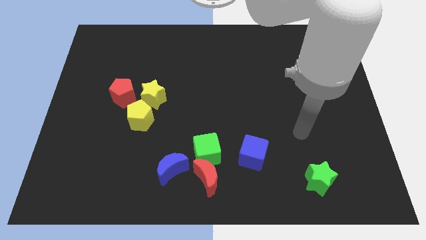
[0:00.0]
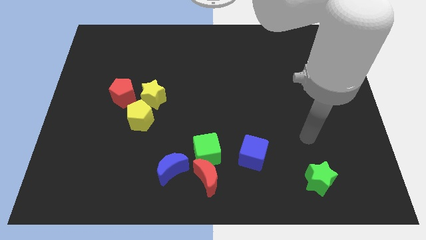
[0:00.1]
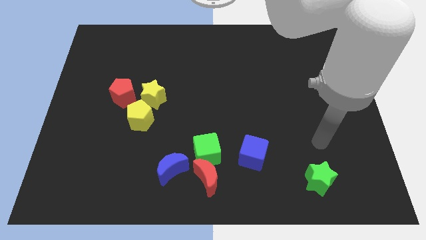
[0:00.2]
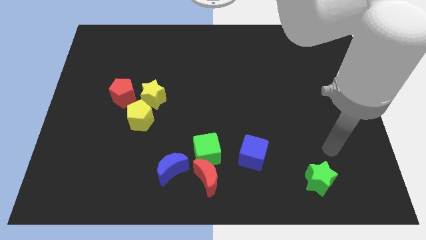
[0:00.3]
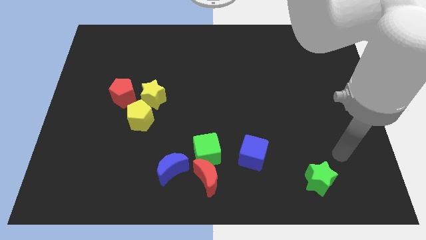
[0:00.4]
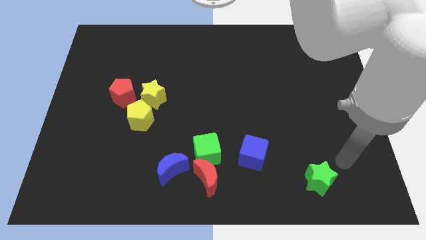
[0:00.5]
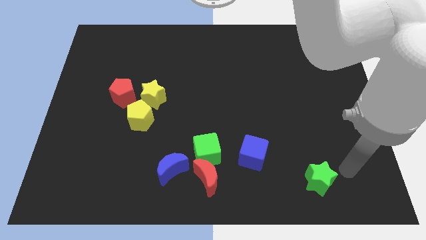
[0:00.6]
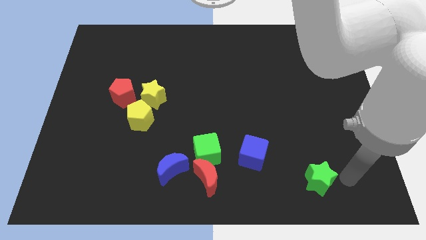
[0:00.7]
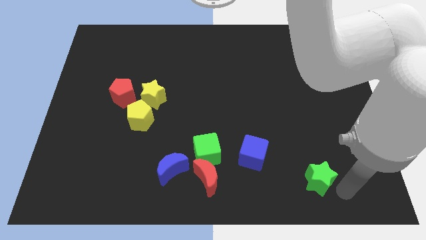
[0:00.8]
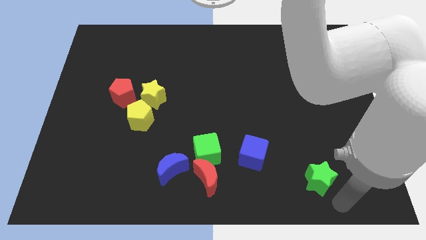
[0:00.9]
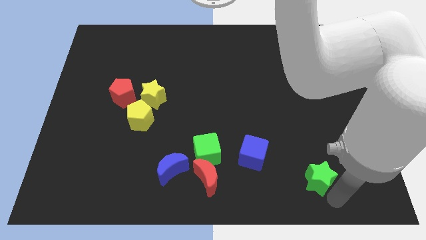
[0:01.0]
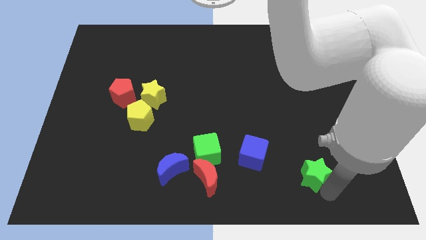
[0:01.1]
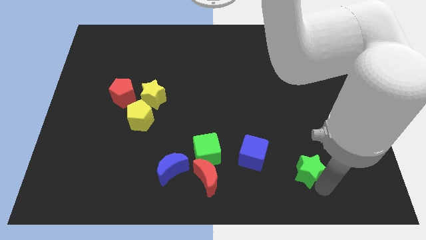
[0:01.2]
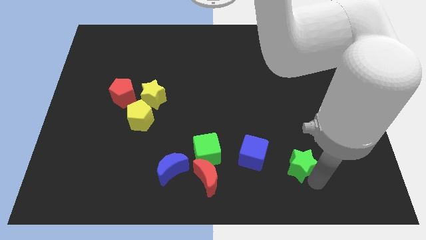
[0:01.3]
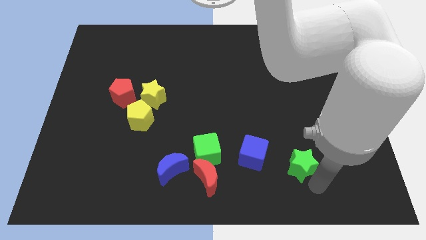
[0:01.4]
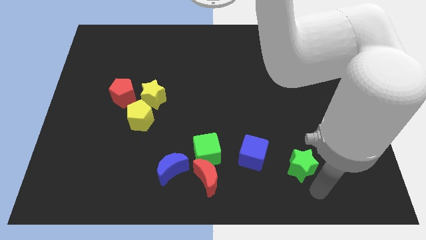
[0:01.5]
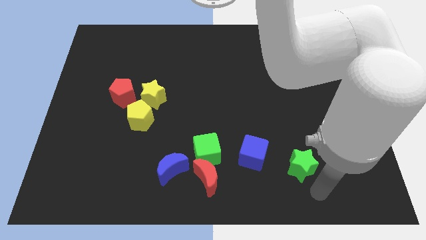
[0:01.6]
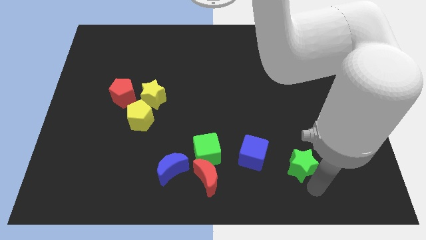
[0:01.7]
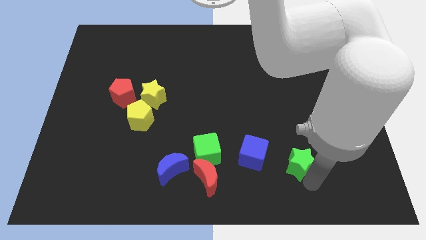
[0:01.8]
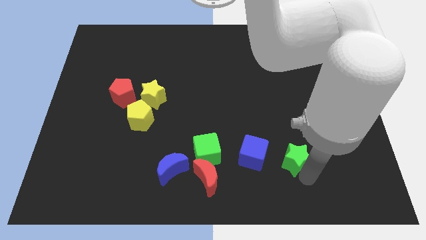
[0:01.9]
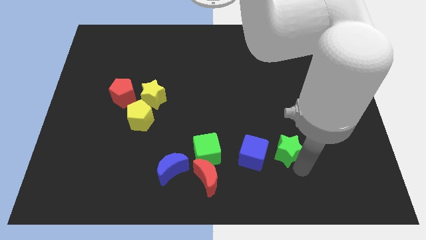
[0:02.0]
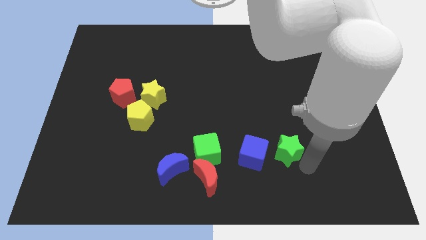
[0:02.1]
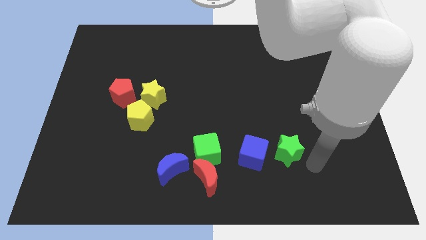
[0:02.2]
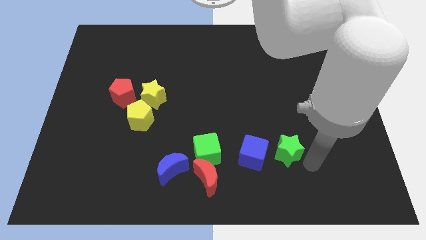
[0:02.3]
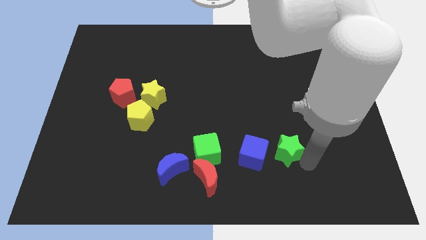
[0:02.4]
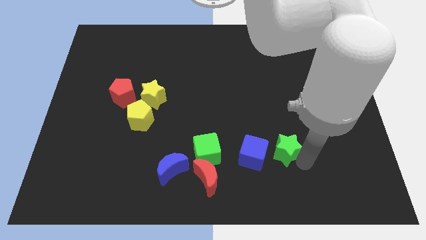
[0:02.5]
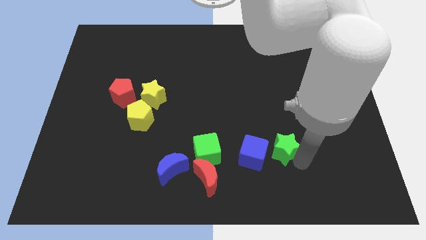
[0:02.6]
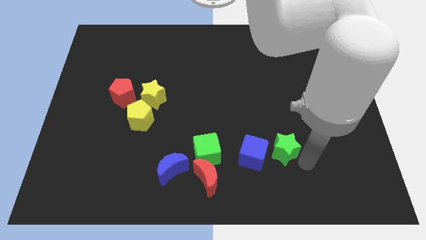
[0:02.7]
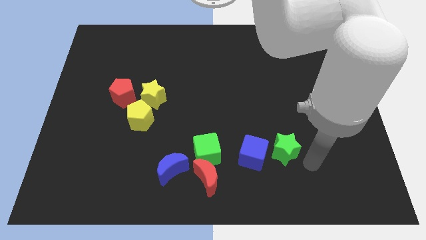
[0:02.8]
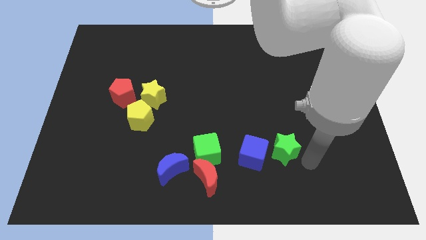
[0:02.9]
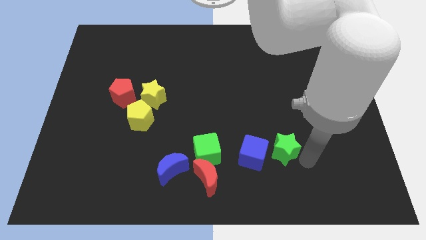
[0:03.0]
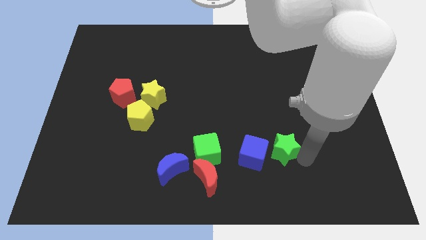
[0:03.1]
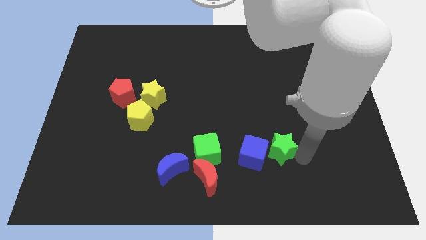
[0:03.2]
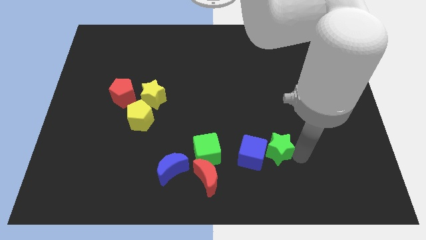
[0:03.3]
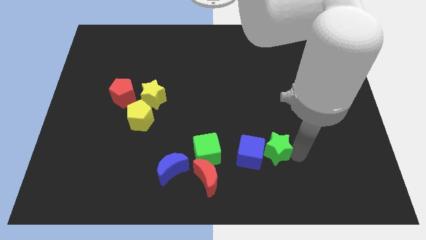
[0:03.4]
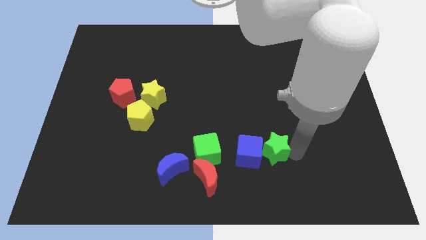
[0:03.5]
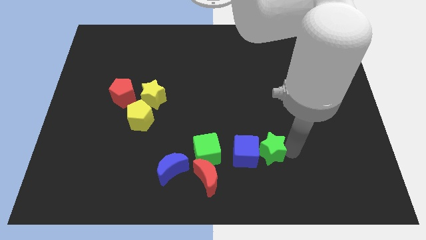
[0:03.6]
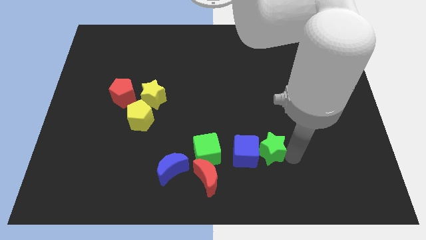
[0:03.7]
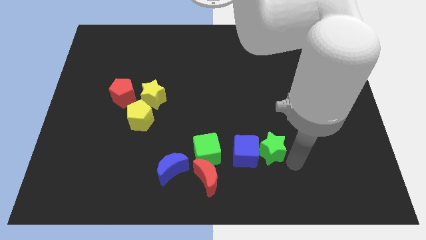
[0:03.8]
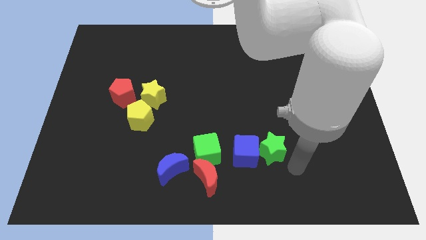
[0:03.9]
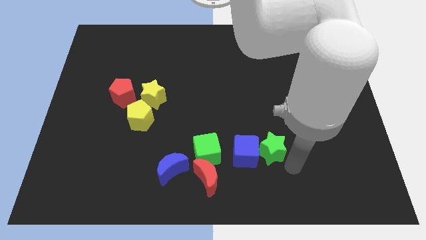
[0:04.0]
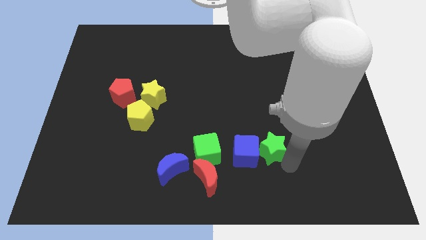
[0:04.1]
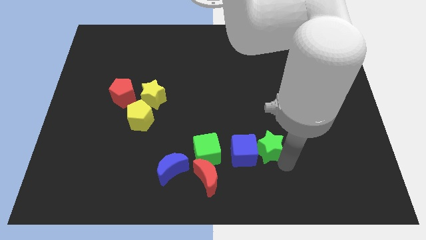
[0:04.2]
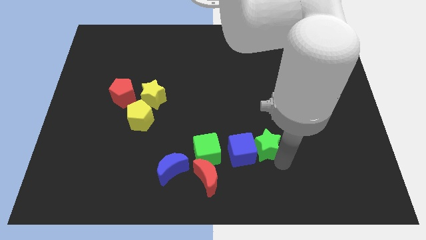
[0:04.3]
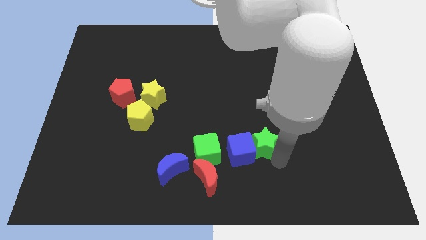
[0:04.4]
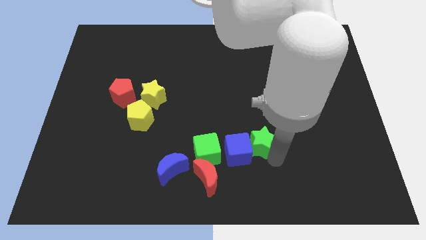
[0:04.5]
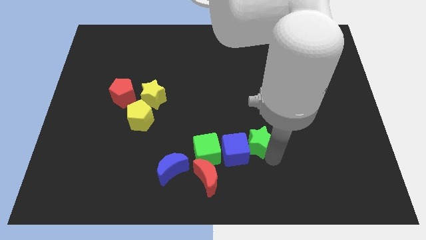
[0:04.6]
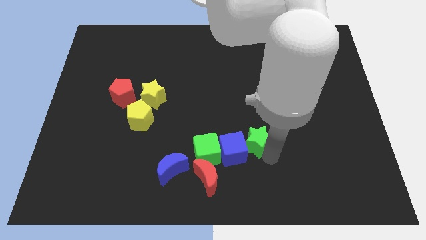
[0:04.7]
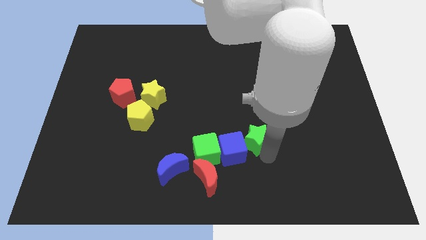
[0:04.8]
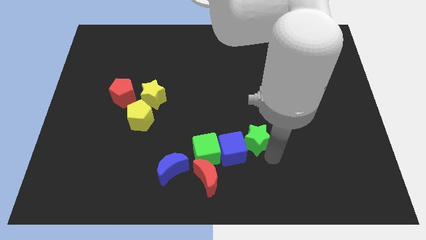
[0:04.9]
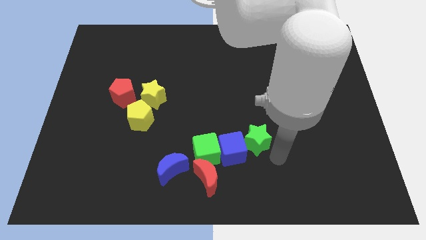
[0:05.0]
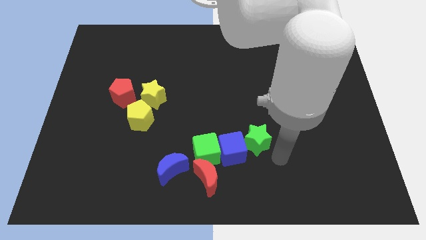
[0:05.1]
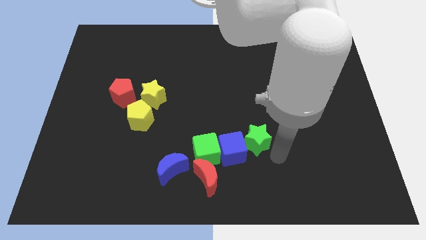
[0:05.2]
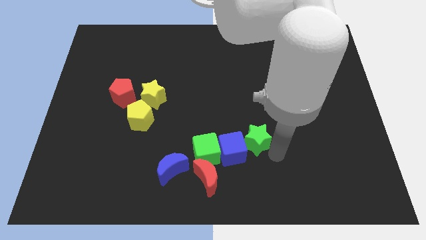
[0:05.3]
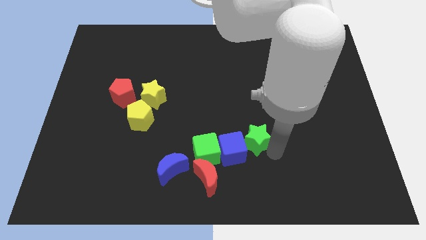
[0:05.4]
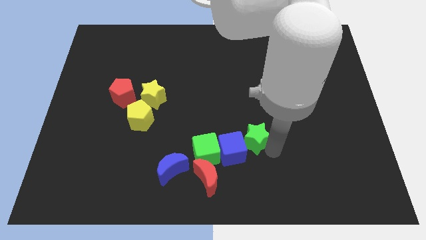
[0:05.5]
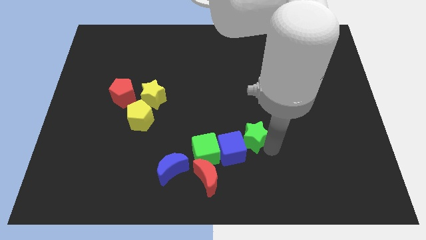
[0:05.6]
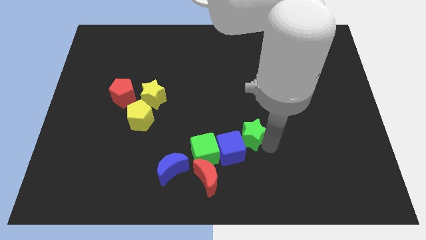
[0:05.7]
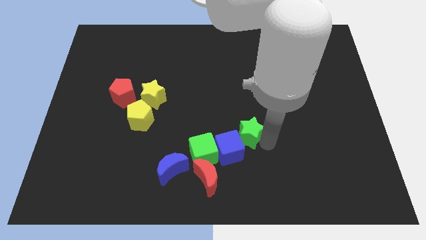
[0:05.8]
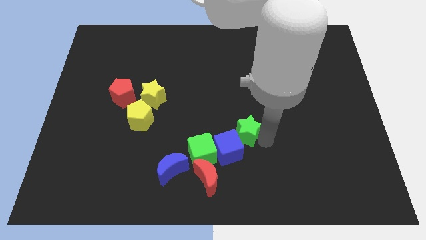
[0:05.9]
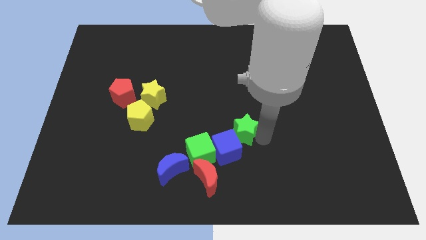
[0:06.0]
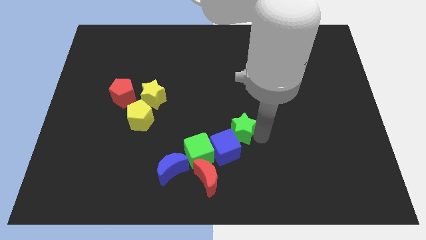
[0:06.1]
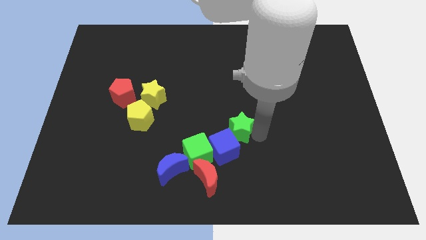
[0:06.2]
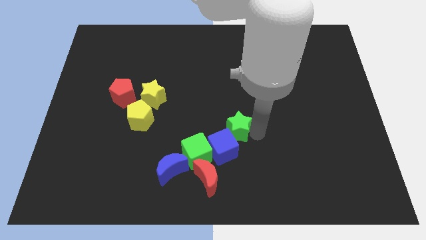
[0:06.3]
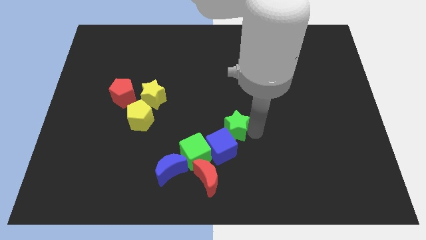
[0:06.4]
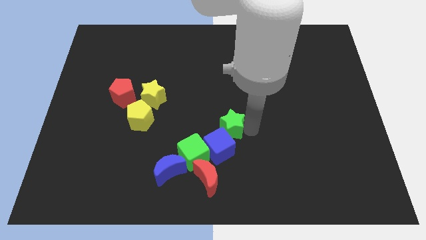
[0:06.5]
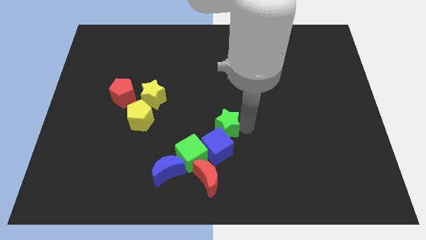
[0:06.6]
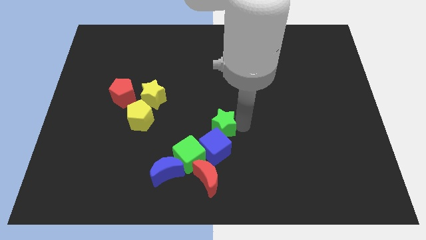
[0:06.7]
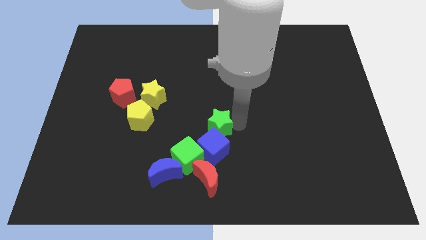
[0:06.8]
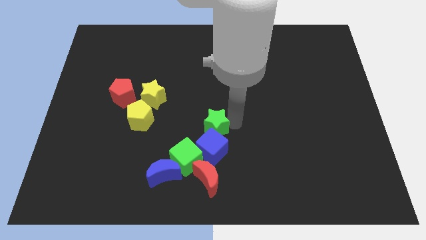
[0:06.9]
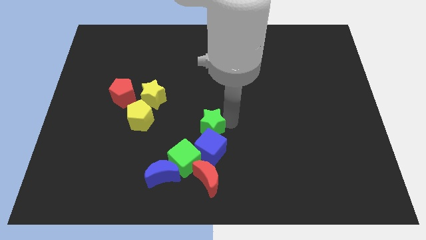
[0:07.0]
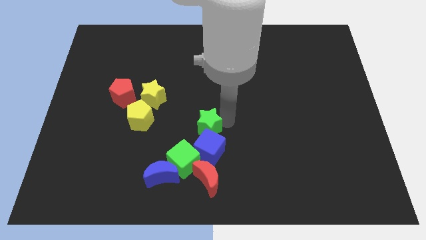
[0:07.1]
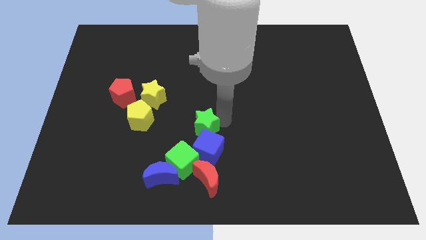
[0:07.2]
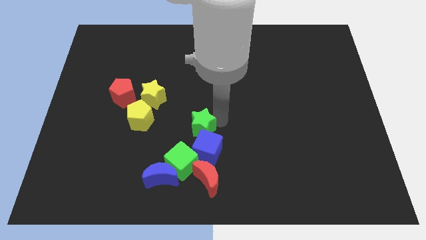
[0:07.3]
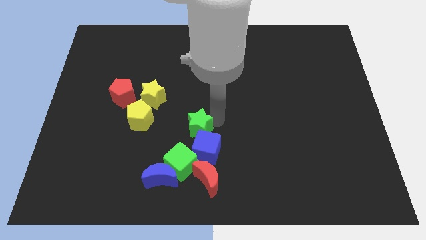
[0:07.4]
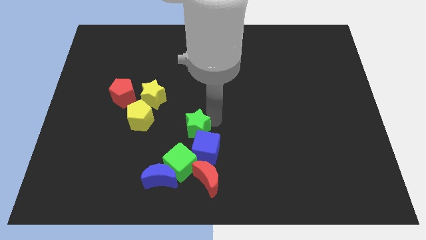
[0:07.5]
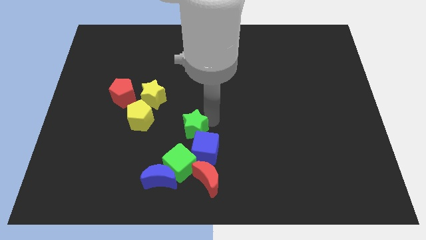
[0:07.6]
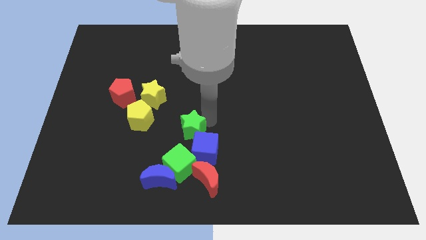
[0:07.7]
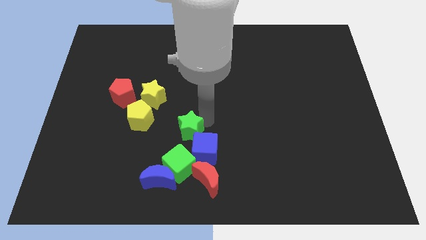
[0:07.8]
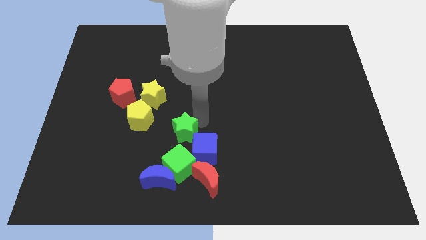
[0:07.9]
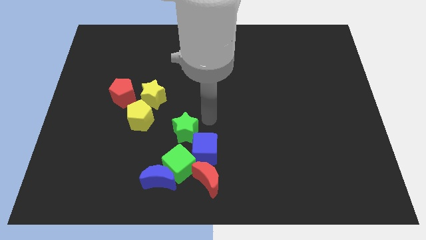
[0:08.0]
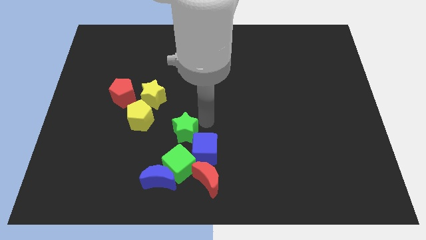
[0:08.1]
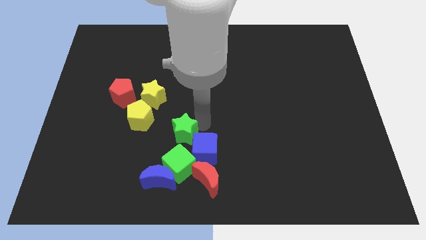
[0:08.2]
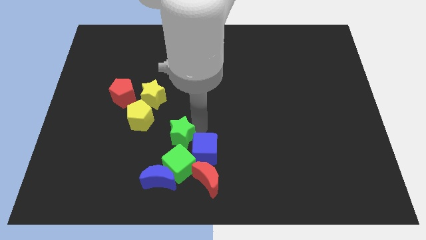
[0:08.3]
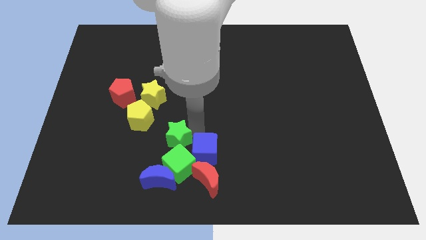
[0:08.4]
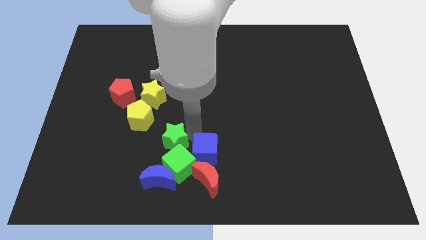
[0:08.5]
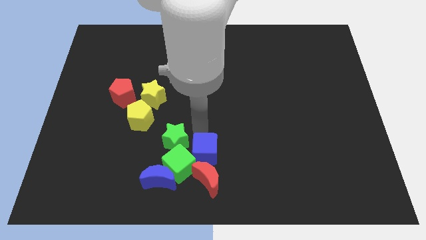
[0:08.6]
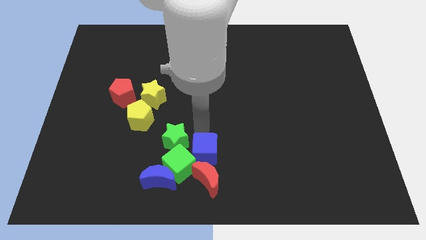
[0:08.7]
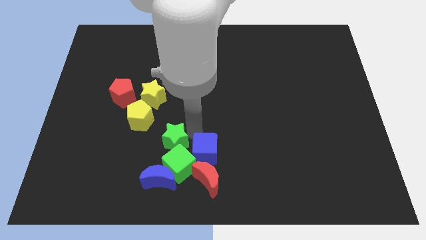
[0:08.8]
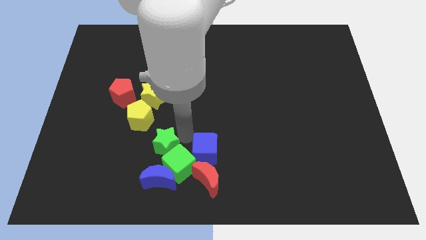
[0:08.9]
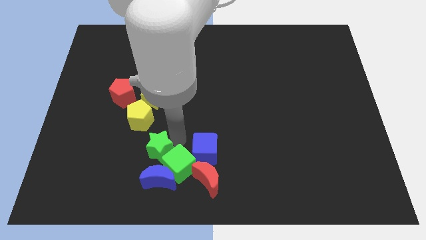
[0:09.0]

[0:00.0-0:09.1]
put the green star diagonally up and to the left of the blue moon
